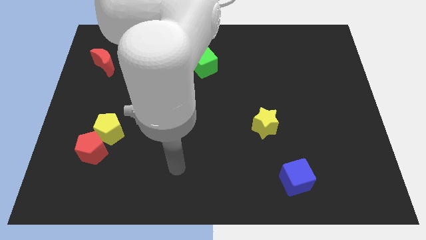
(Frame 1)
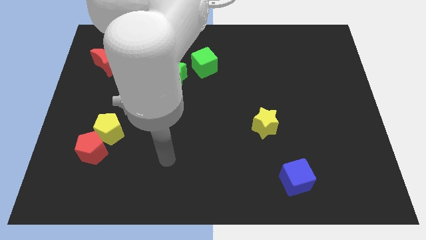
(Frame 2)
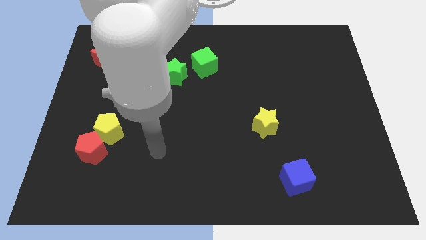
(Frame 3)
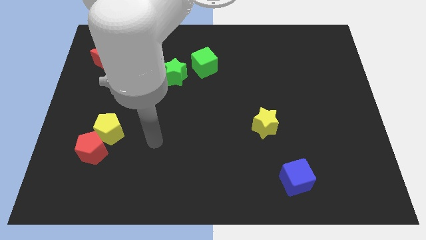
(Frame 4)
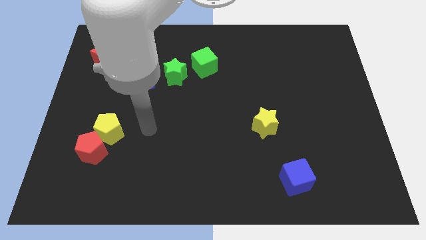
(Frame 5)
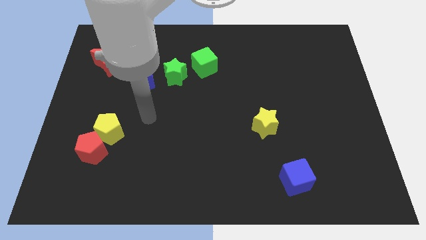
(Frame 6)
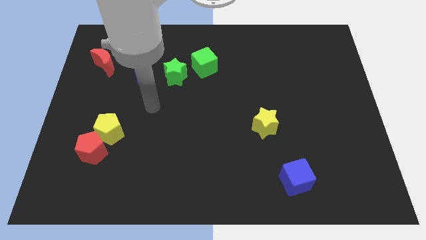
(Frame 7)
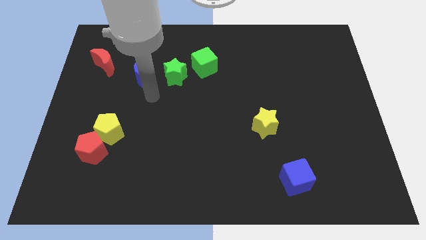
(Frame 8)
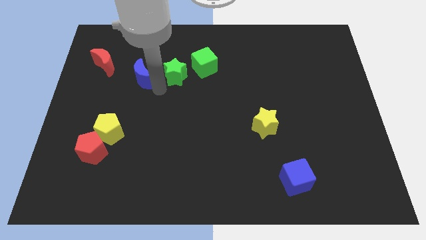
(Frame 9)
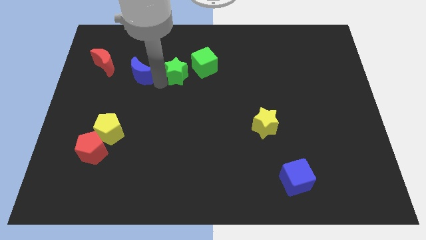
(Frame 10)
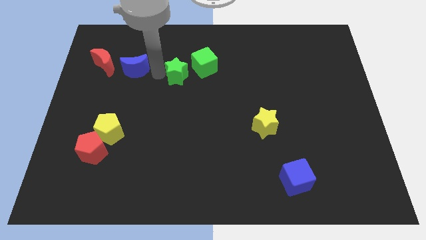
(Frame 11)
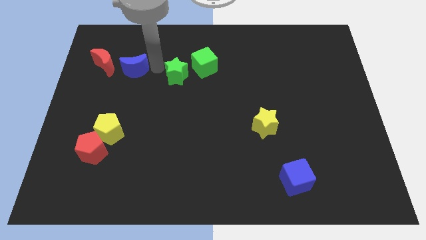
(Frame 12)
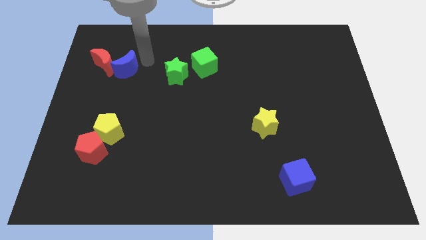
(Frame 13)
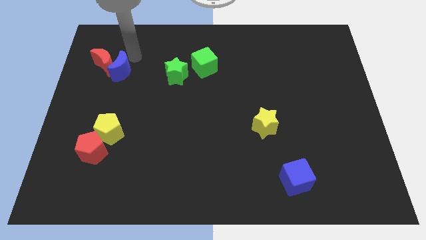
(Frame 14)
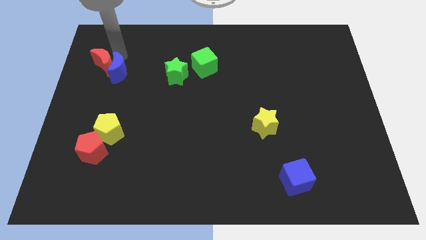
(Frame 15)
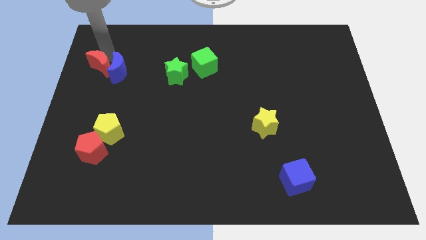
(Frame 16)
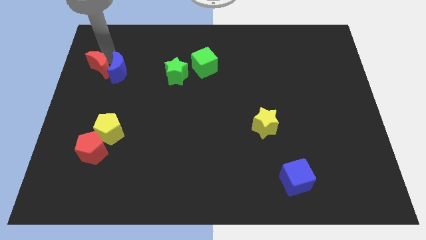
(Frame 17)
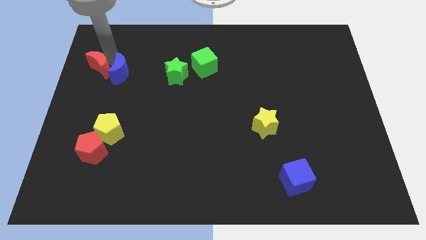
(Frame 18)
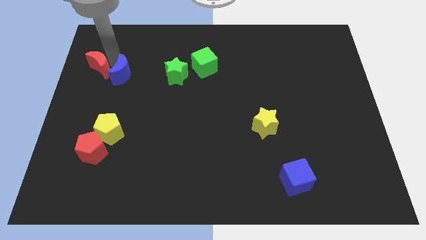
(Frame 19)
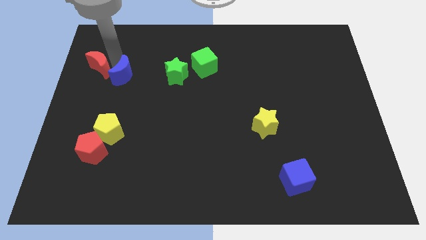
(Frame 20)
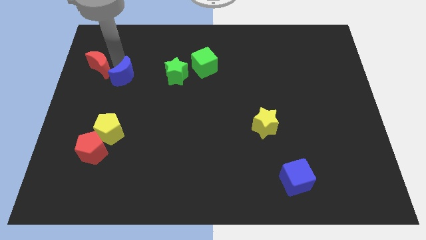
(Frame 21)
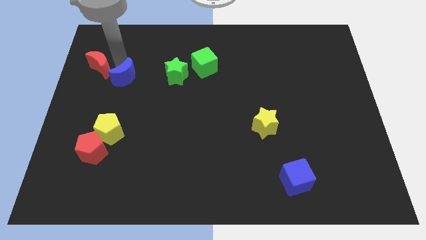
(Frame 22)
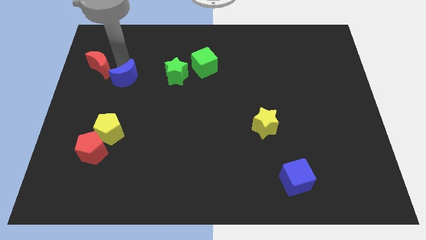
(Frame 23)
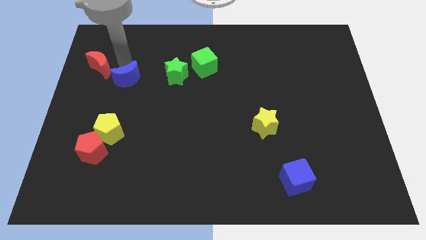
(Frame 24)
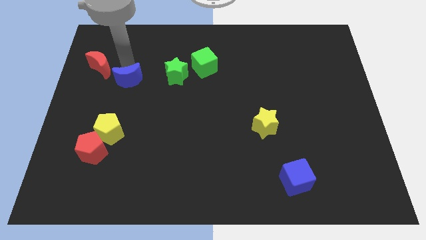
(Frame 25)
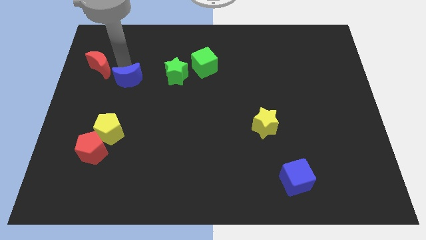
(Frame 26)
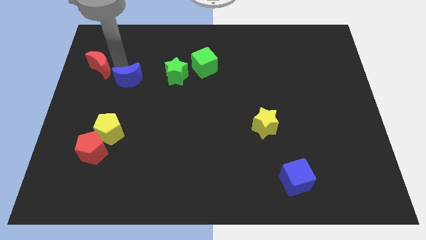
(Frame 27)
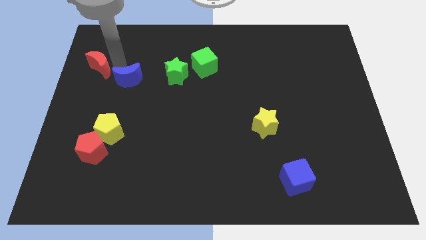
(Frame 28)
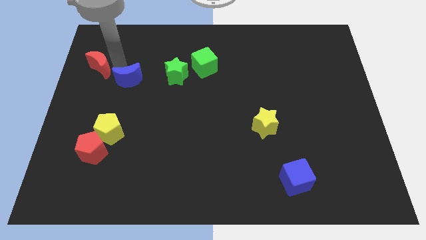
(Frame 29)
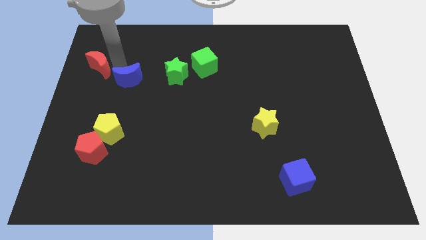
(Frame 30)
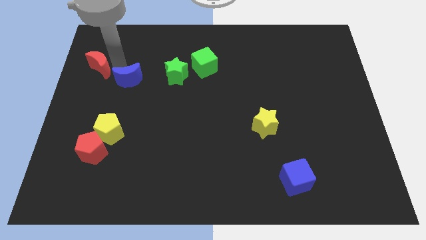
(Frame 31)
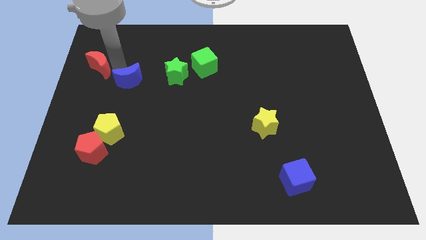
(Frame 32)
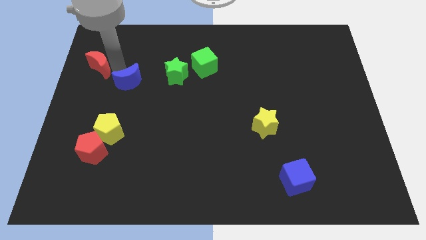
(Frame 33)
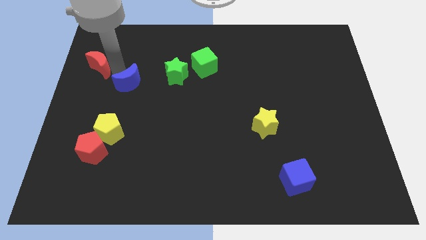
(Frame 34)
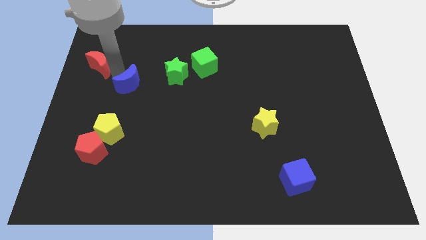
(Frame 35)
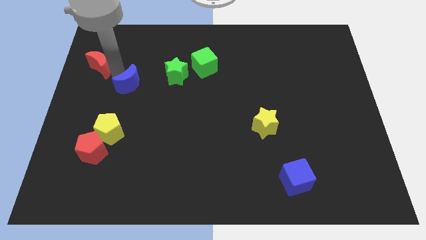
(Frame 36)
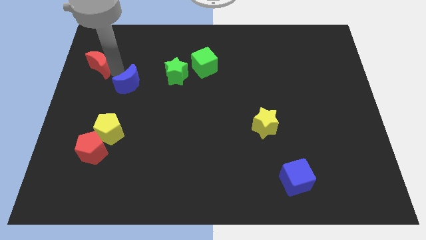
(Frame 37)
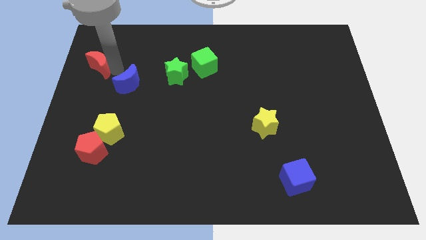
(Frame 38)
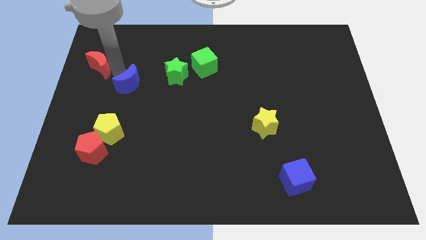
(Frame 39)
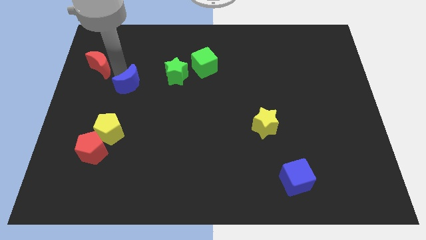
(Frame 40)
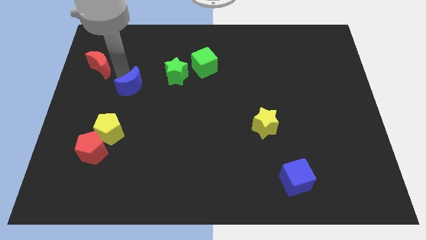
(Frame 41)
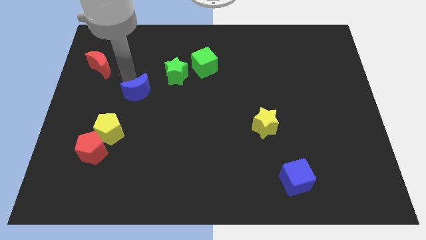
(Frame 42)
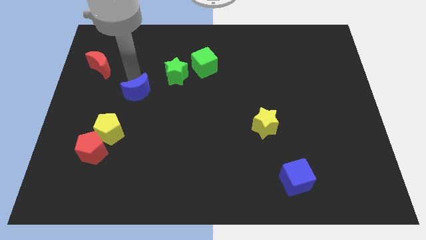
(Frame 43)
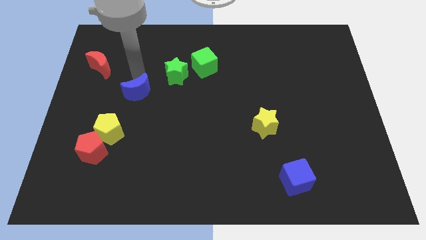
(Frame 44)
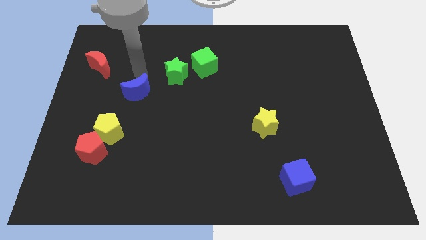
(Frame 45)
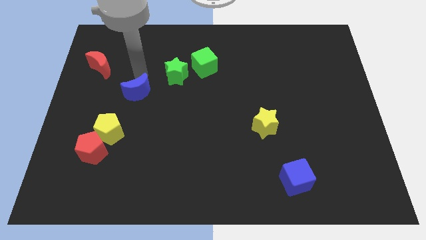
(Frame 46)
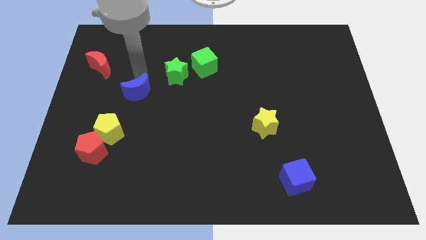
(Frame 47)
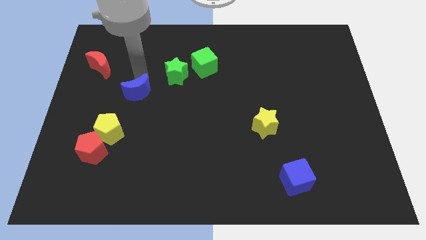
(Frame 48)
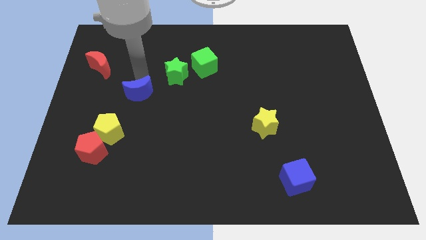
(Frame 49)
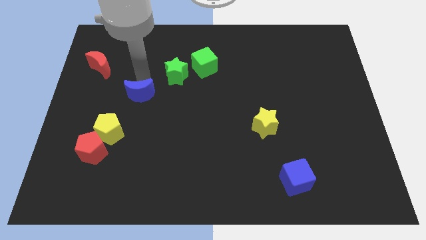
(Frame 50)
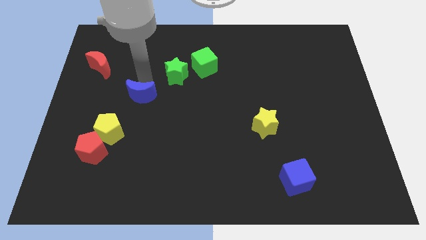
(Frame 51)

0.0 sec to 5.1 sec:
slide the blue moon to the top right of the yellow pentagon

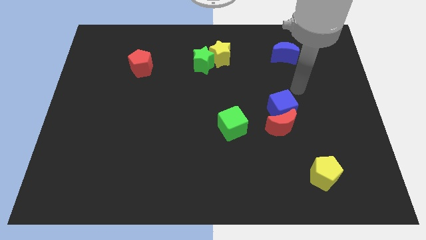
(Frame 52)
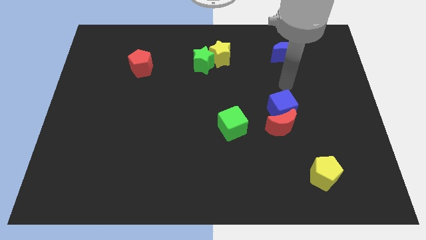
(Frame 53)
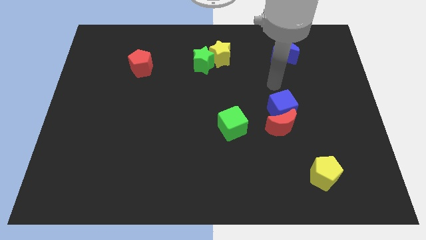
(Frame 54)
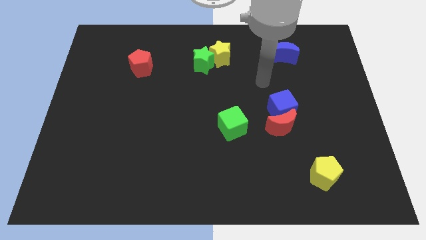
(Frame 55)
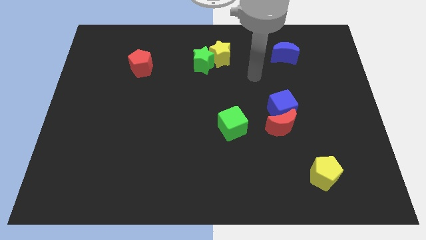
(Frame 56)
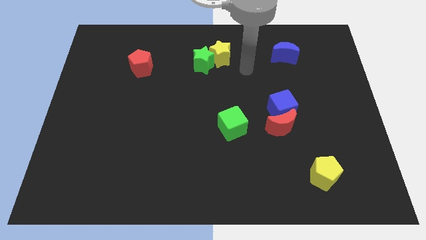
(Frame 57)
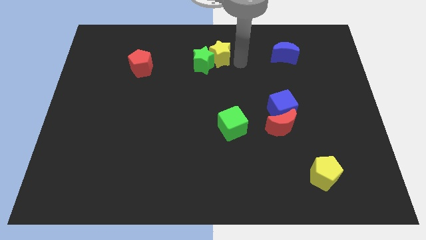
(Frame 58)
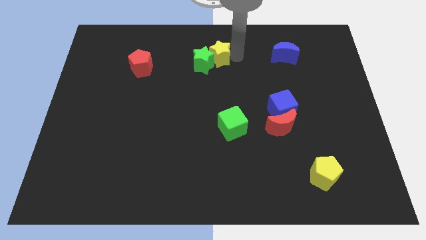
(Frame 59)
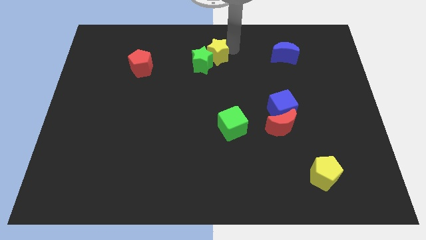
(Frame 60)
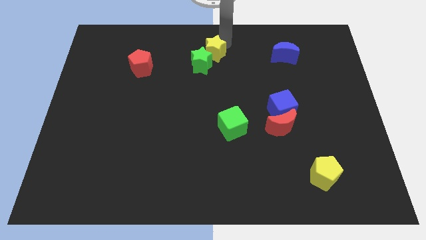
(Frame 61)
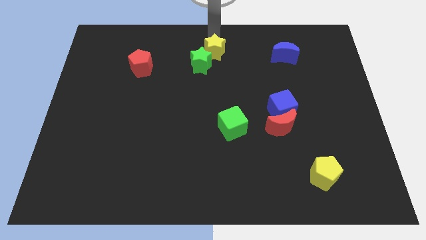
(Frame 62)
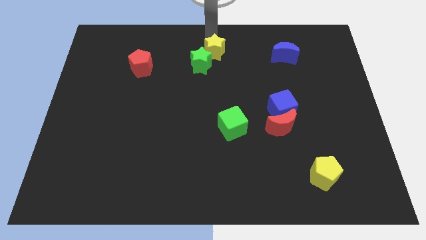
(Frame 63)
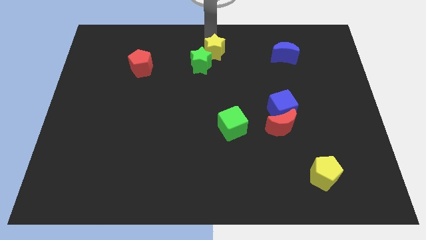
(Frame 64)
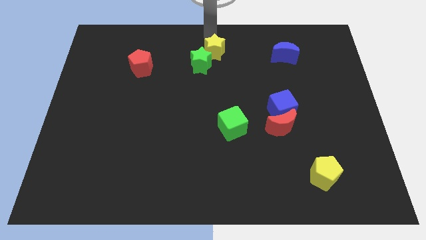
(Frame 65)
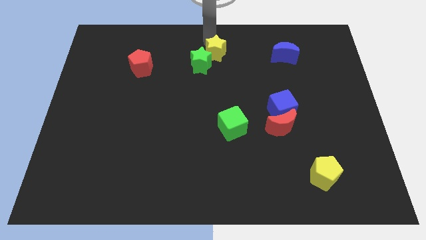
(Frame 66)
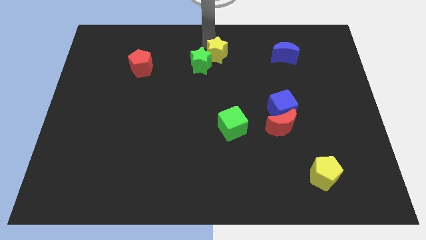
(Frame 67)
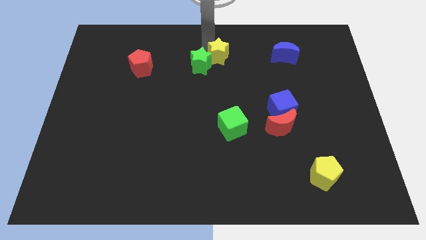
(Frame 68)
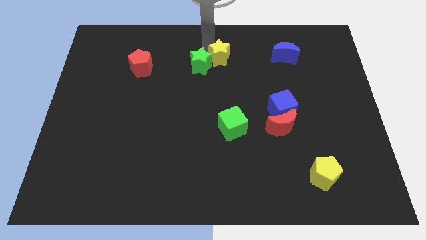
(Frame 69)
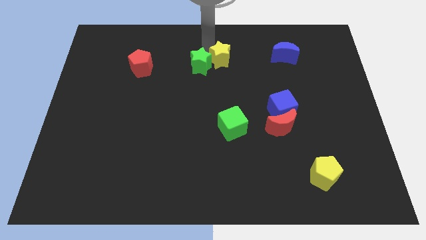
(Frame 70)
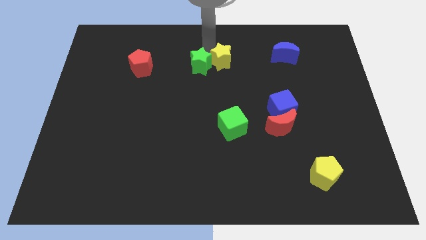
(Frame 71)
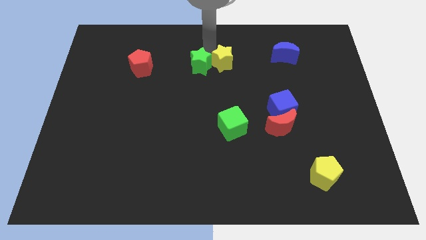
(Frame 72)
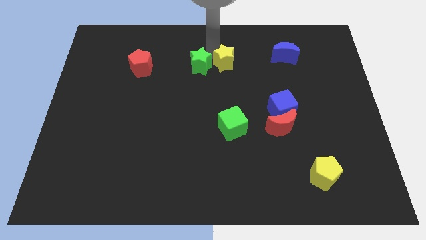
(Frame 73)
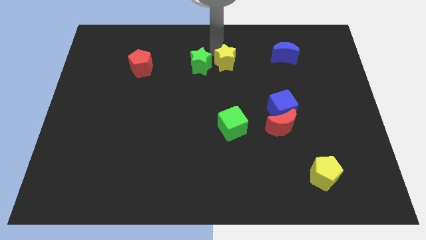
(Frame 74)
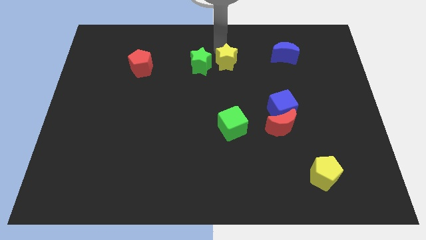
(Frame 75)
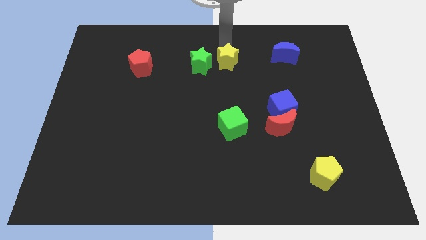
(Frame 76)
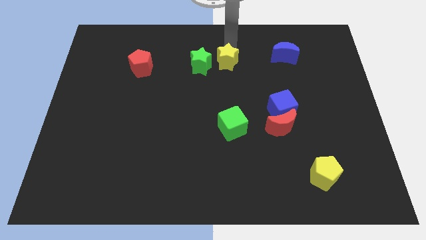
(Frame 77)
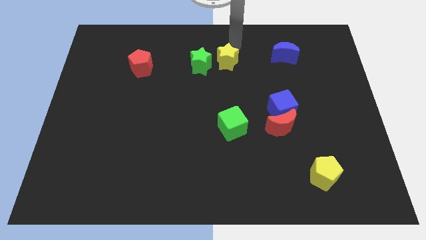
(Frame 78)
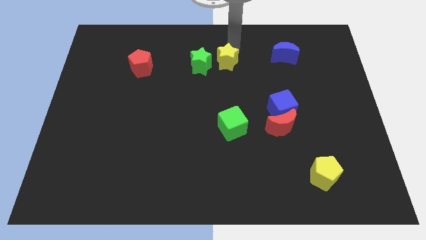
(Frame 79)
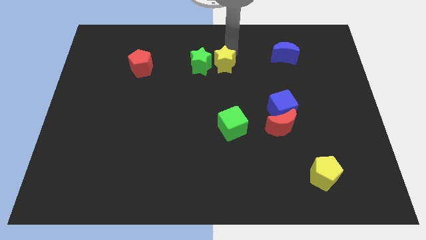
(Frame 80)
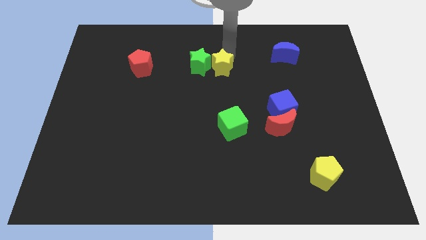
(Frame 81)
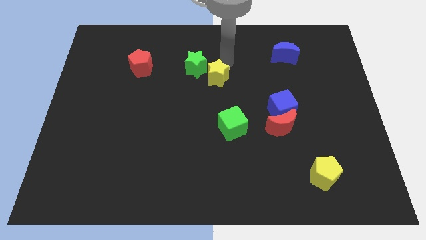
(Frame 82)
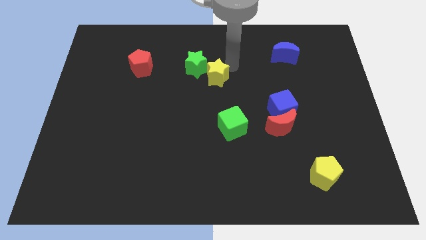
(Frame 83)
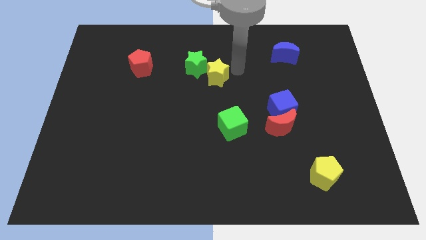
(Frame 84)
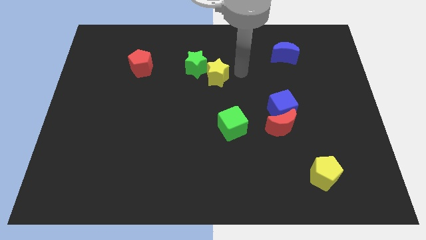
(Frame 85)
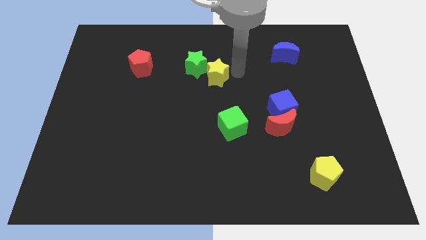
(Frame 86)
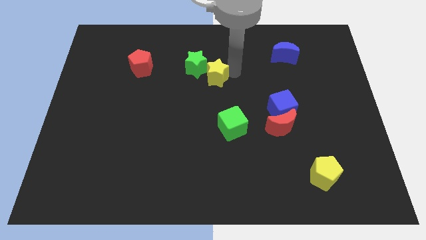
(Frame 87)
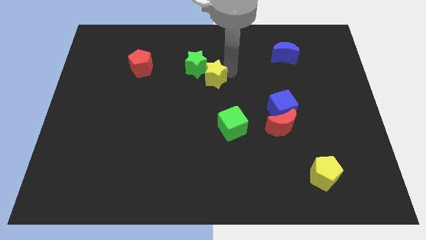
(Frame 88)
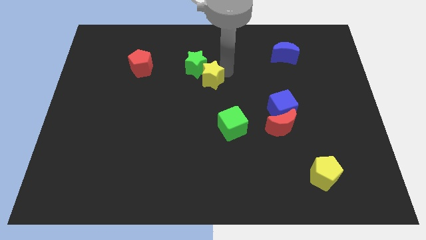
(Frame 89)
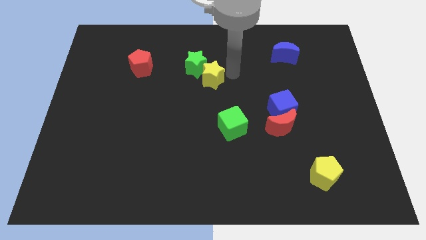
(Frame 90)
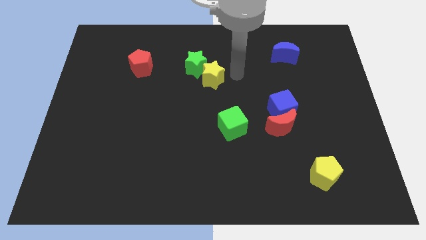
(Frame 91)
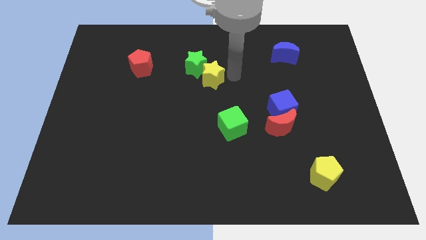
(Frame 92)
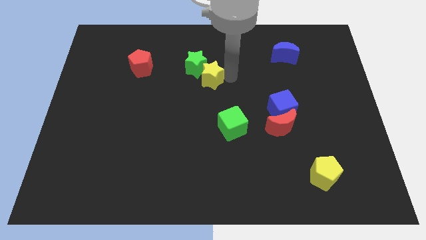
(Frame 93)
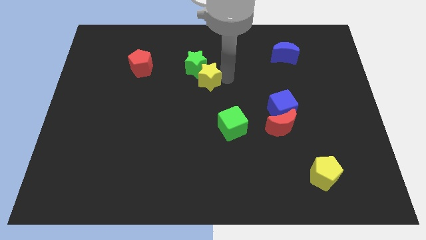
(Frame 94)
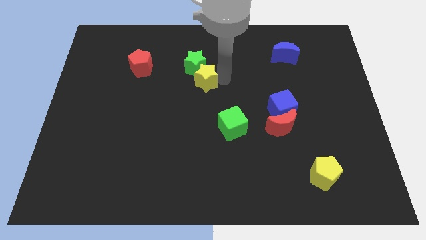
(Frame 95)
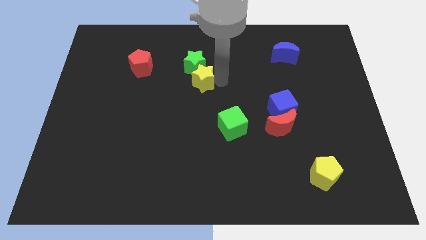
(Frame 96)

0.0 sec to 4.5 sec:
push the yellow star to the bottom left side of the green star
